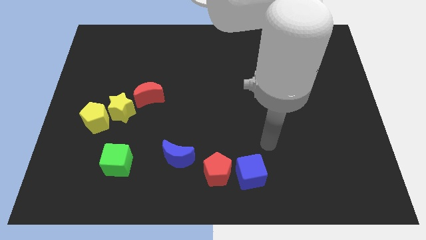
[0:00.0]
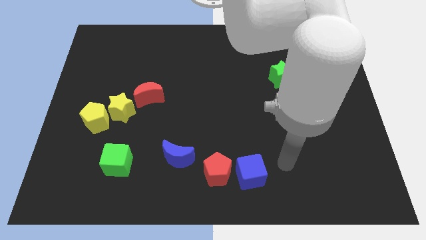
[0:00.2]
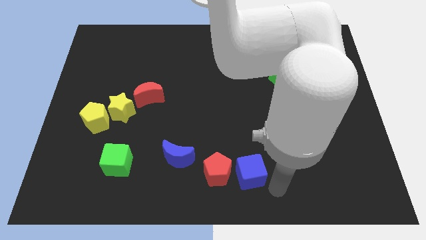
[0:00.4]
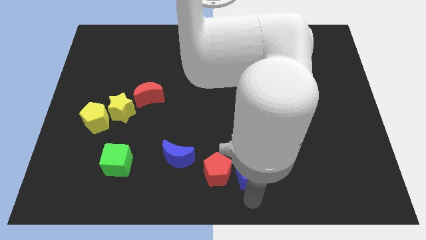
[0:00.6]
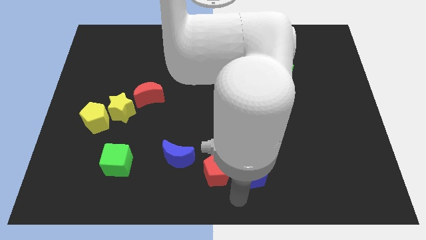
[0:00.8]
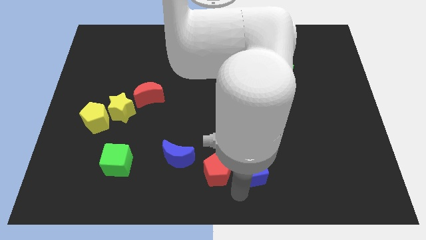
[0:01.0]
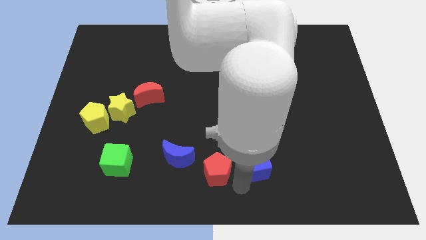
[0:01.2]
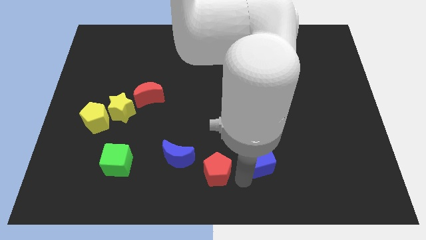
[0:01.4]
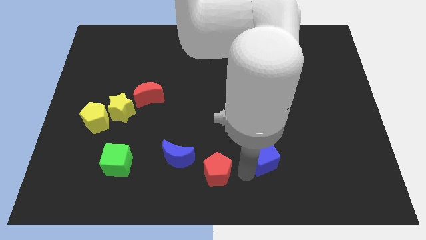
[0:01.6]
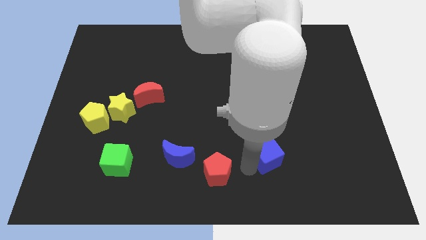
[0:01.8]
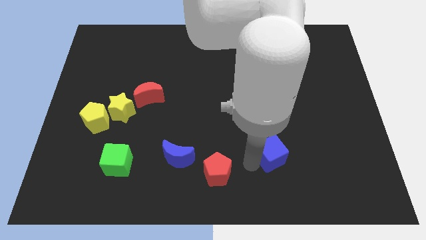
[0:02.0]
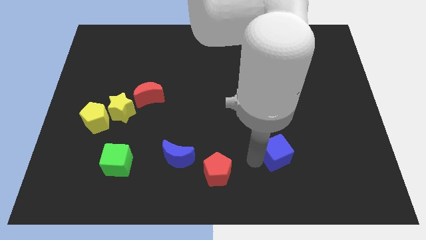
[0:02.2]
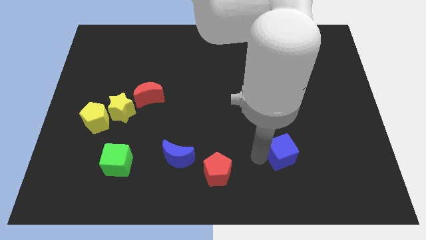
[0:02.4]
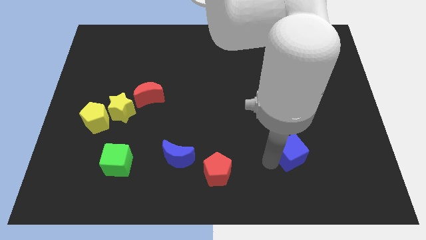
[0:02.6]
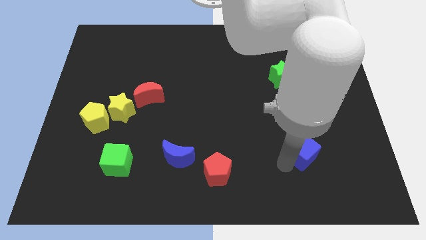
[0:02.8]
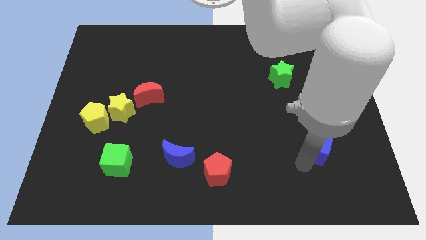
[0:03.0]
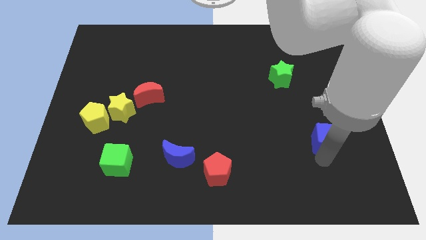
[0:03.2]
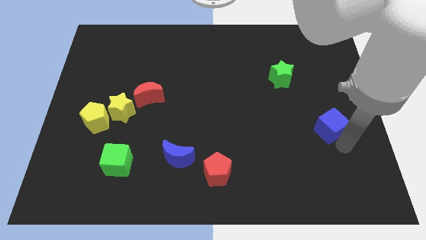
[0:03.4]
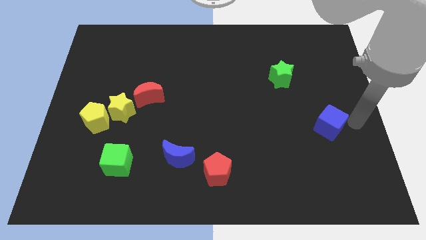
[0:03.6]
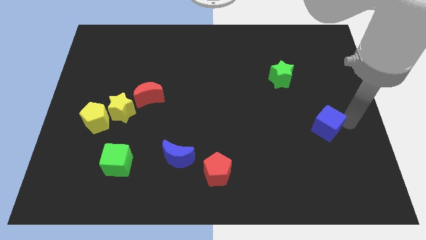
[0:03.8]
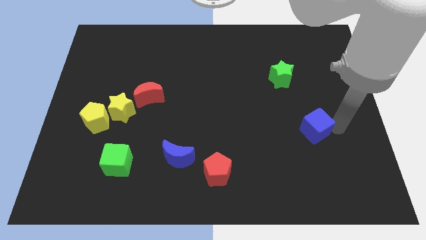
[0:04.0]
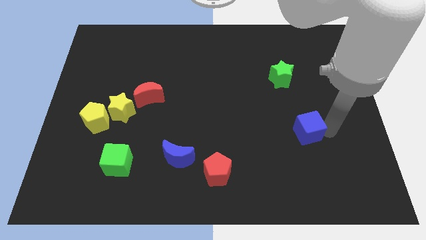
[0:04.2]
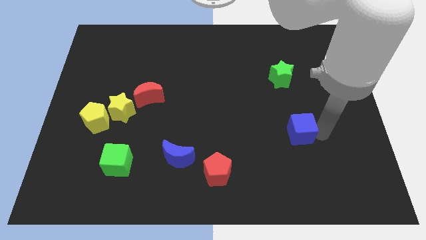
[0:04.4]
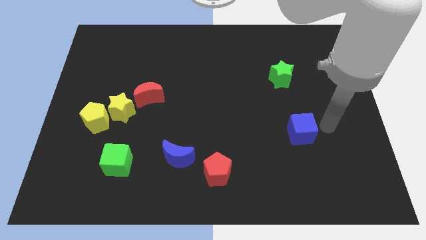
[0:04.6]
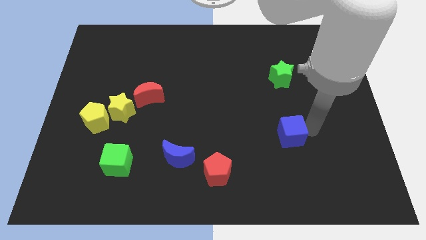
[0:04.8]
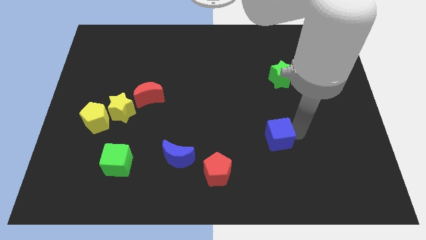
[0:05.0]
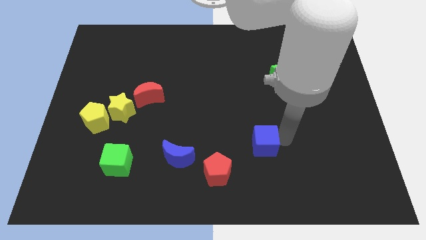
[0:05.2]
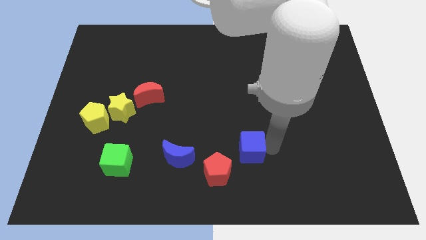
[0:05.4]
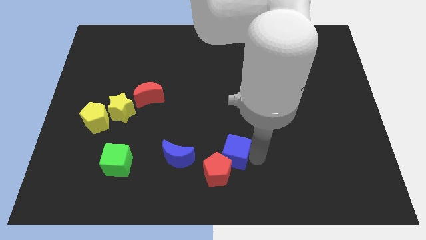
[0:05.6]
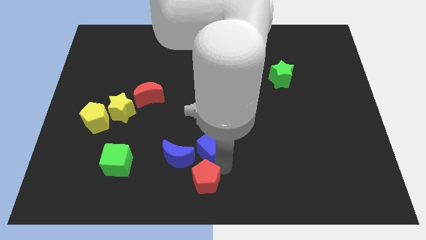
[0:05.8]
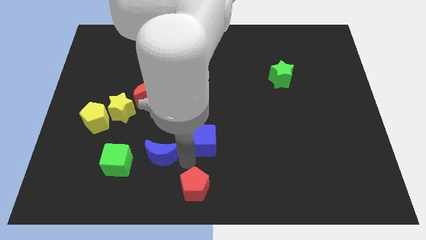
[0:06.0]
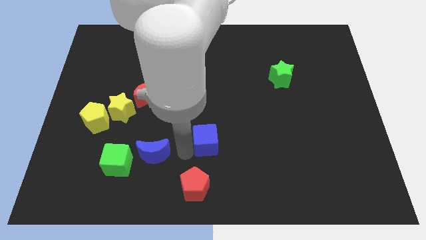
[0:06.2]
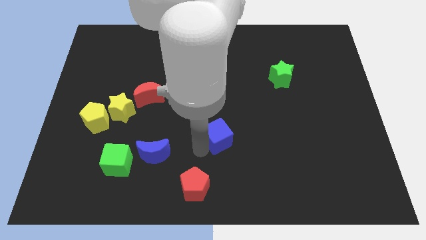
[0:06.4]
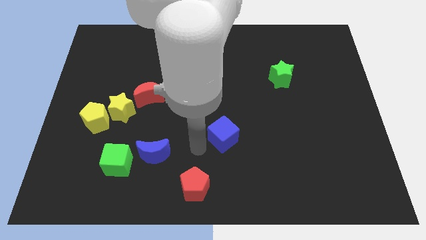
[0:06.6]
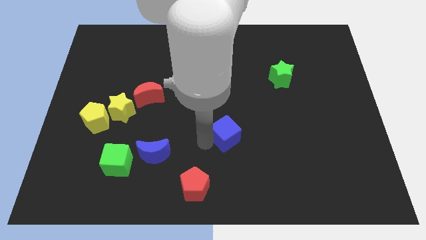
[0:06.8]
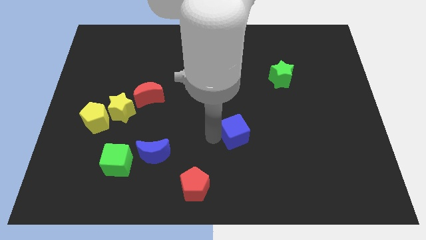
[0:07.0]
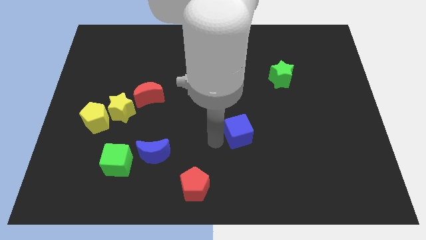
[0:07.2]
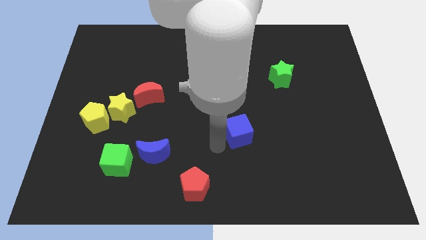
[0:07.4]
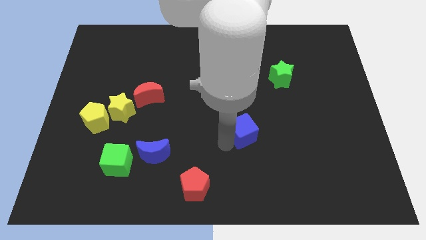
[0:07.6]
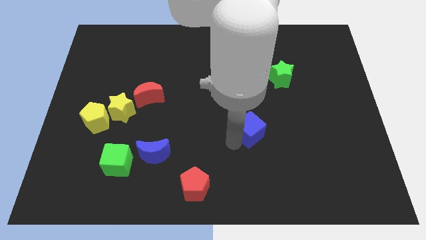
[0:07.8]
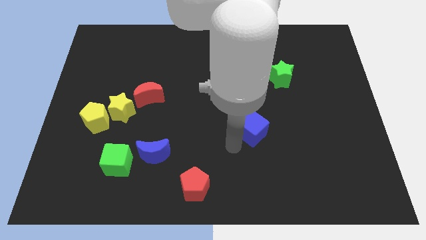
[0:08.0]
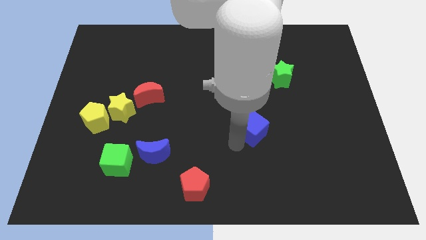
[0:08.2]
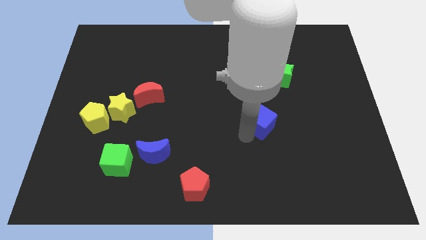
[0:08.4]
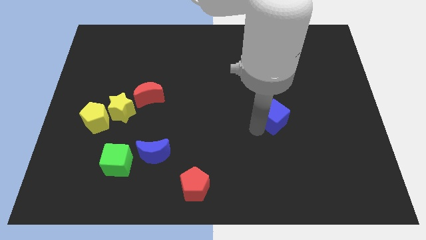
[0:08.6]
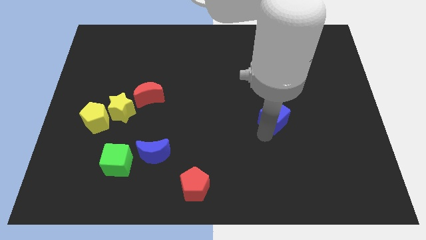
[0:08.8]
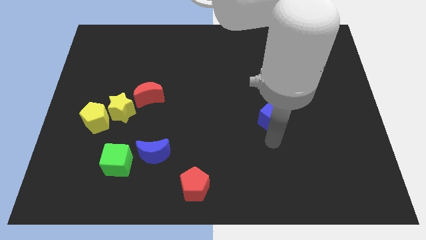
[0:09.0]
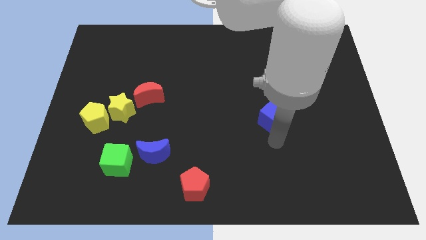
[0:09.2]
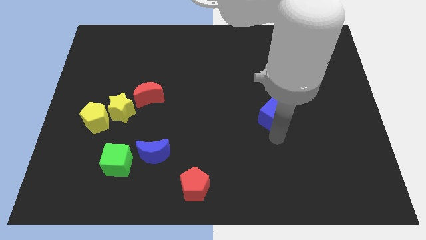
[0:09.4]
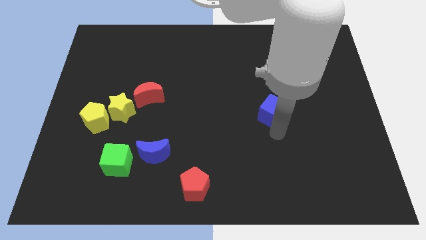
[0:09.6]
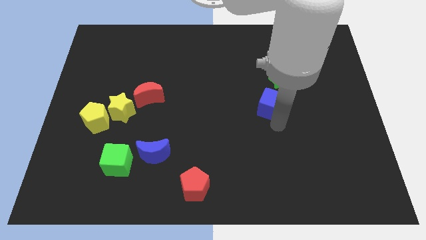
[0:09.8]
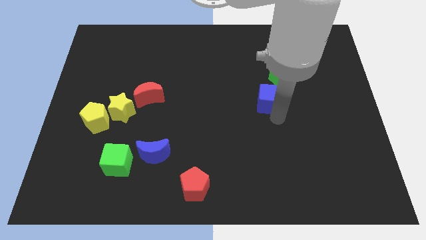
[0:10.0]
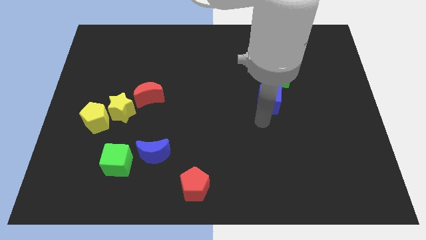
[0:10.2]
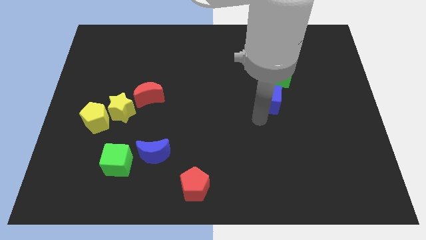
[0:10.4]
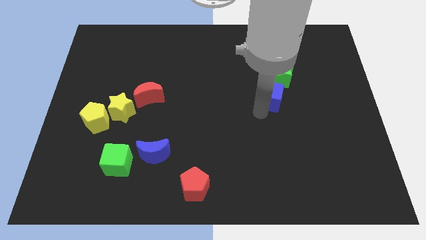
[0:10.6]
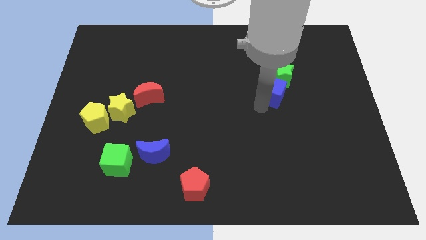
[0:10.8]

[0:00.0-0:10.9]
slide the blue cube to the green star

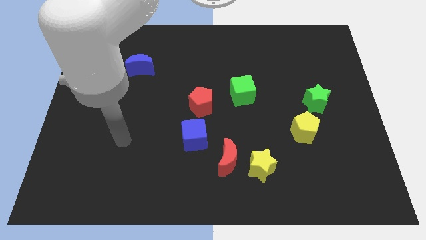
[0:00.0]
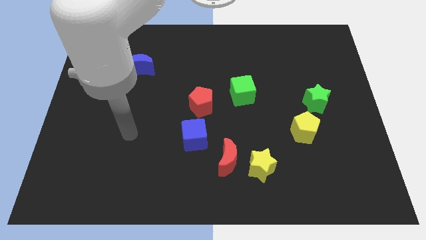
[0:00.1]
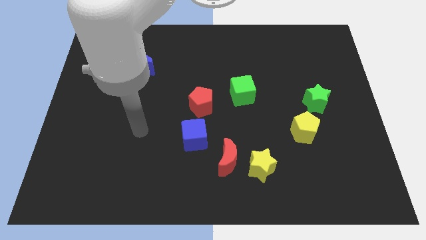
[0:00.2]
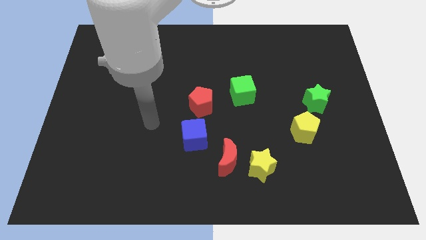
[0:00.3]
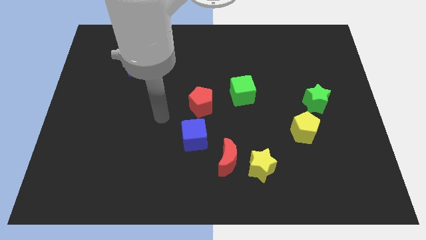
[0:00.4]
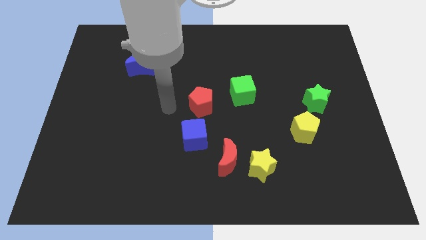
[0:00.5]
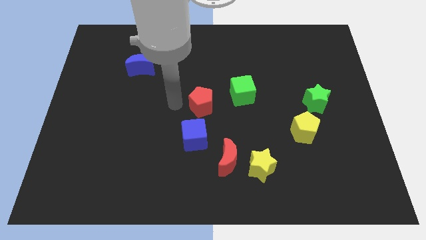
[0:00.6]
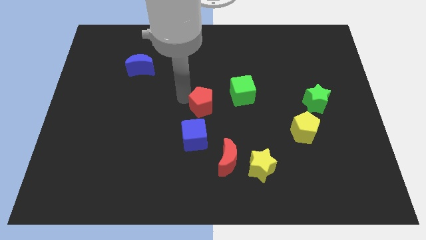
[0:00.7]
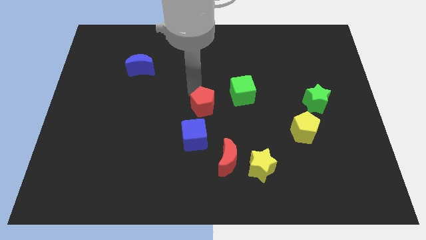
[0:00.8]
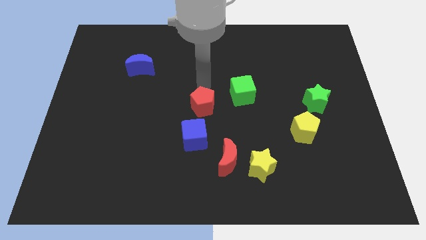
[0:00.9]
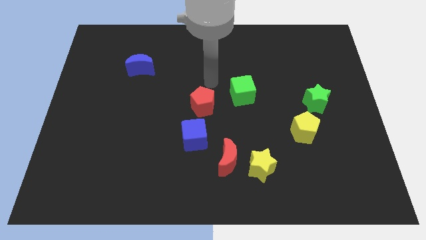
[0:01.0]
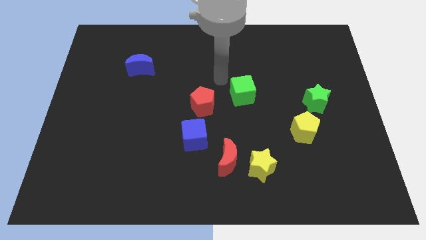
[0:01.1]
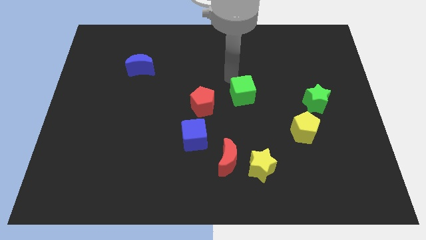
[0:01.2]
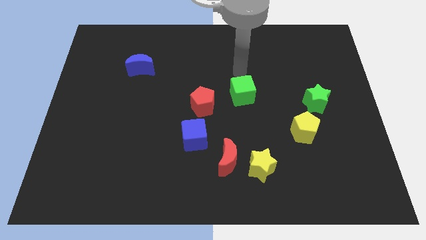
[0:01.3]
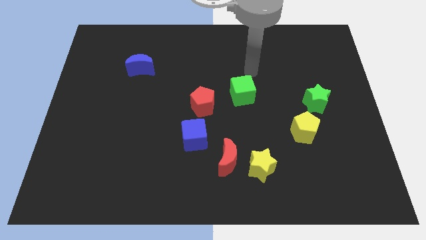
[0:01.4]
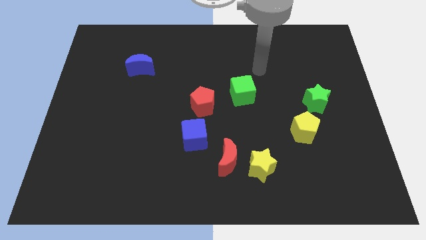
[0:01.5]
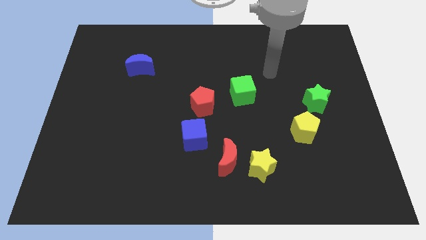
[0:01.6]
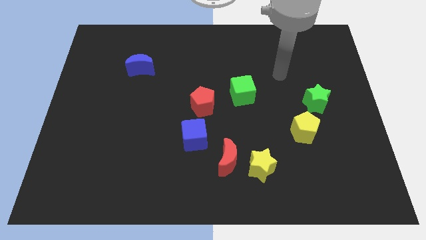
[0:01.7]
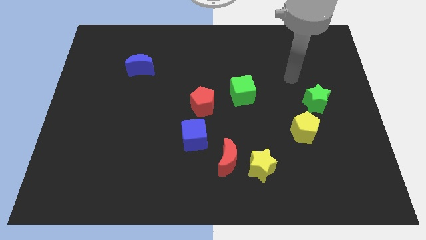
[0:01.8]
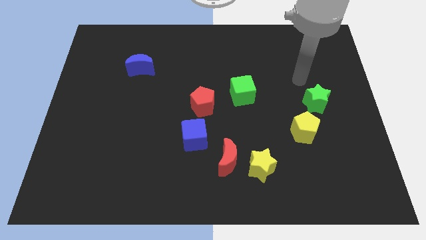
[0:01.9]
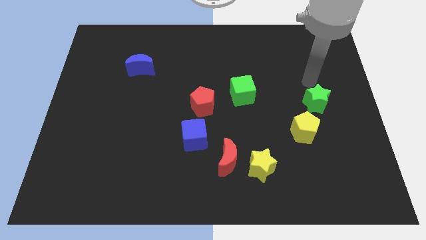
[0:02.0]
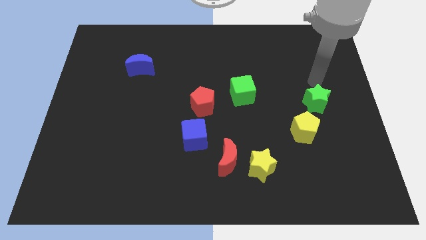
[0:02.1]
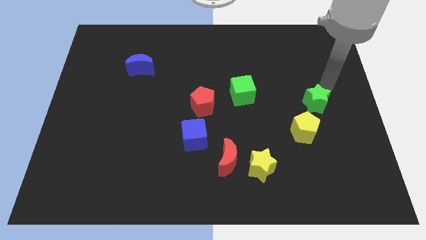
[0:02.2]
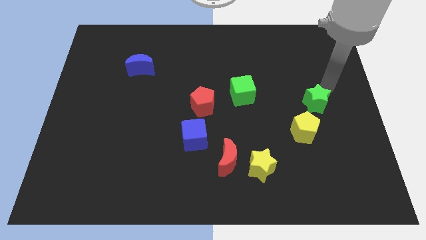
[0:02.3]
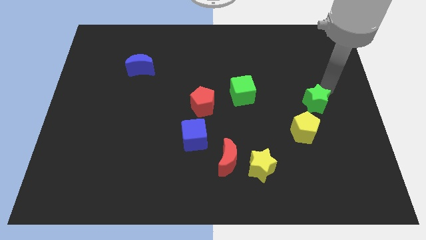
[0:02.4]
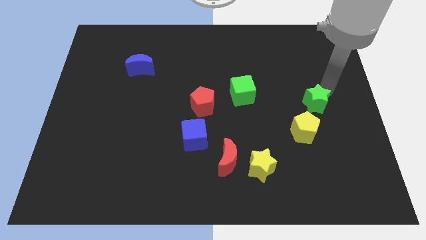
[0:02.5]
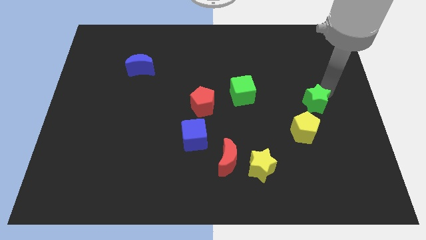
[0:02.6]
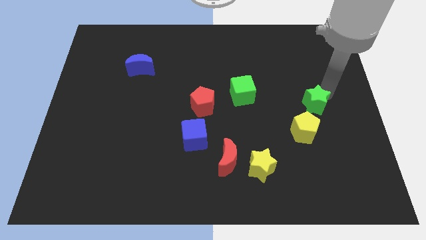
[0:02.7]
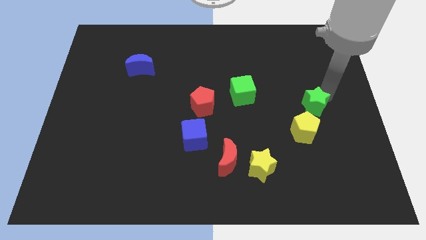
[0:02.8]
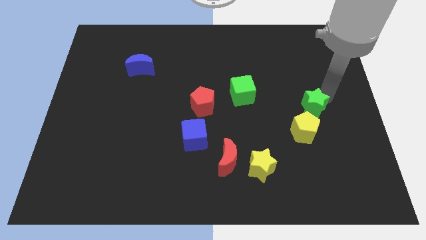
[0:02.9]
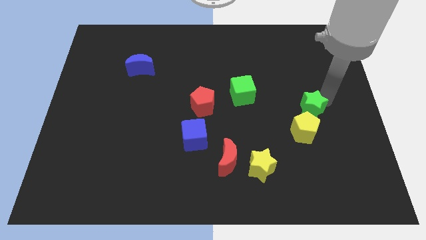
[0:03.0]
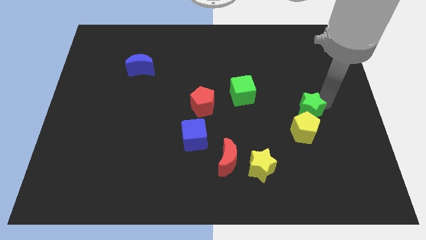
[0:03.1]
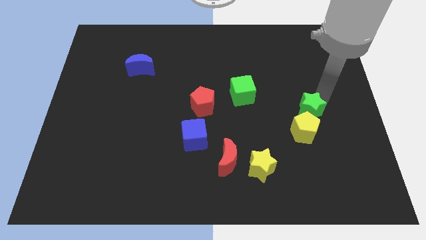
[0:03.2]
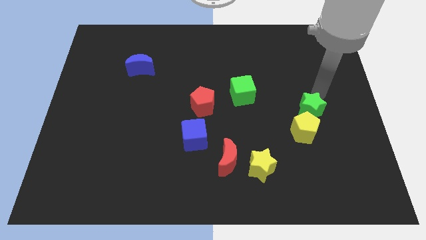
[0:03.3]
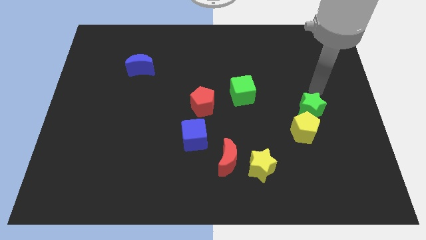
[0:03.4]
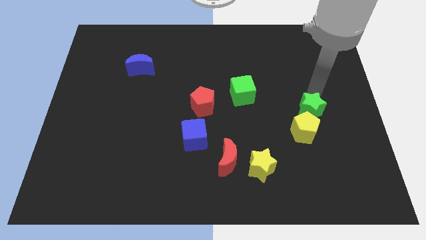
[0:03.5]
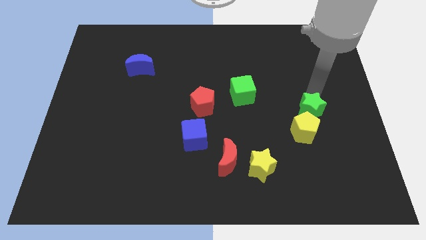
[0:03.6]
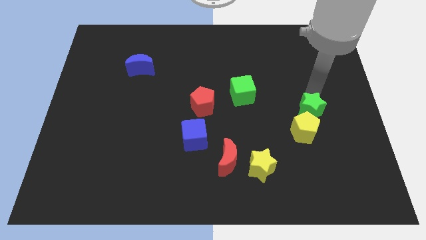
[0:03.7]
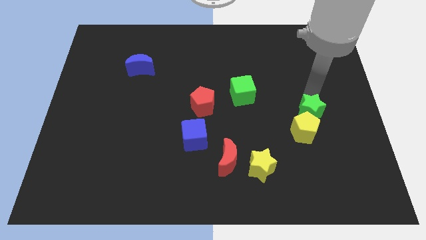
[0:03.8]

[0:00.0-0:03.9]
slide the green star close to the yellow pentagon
